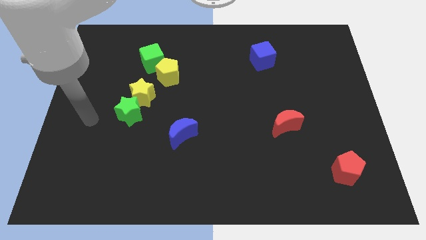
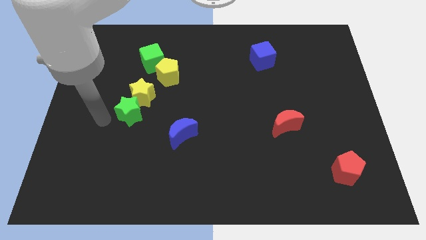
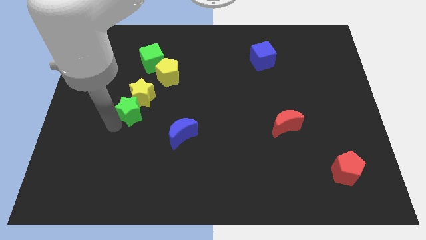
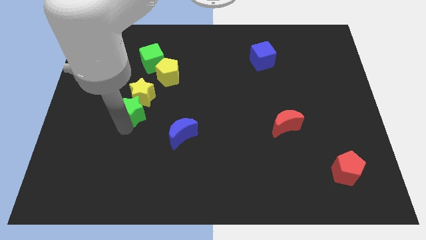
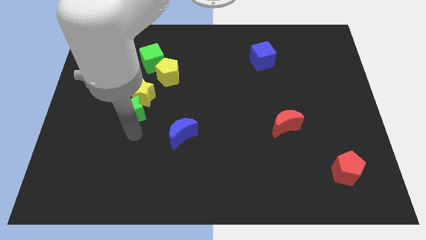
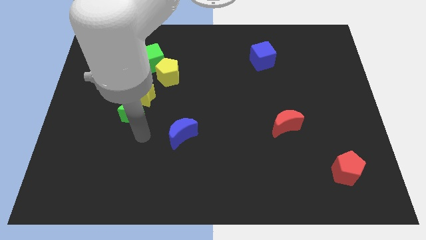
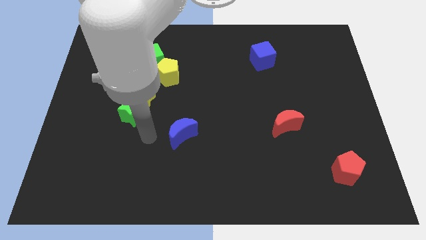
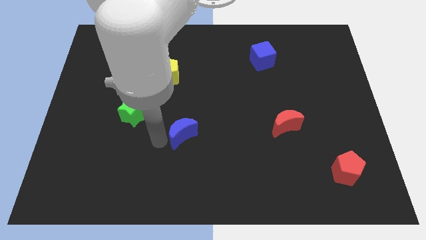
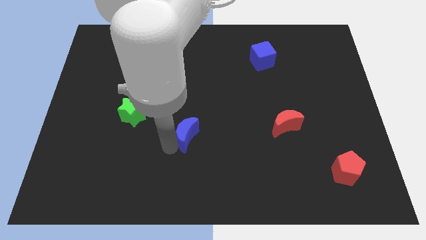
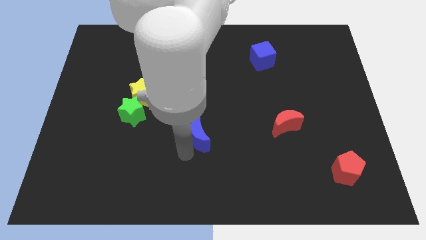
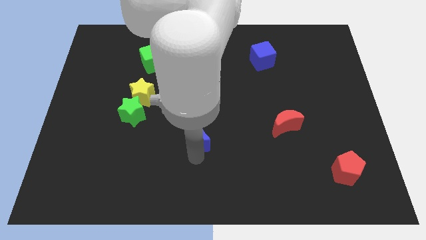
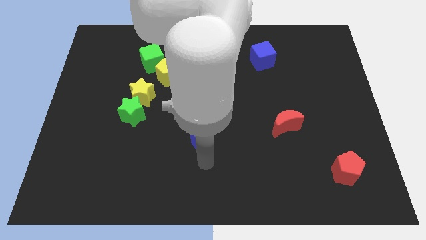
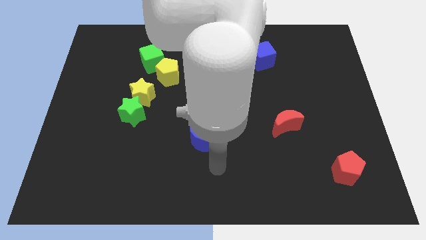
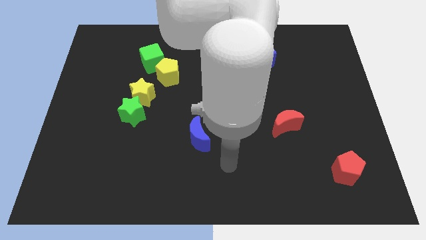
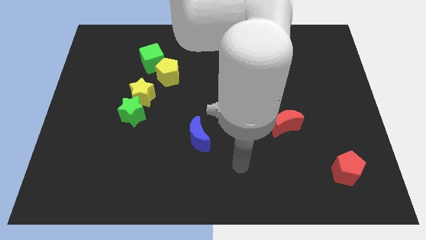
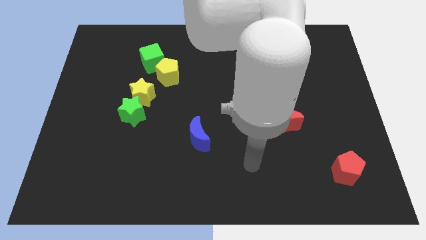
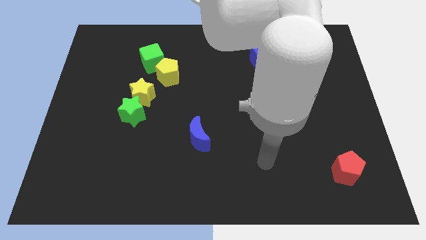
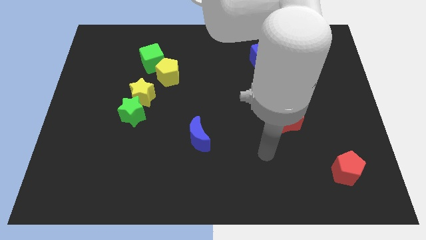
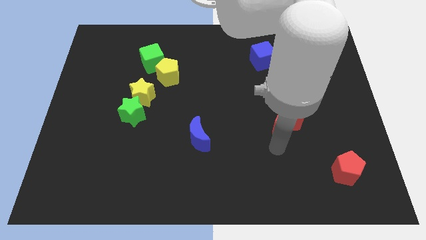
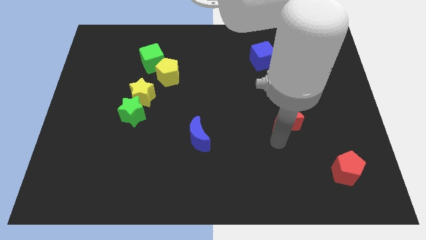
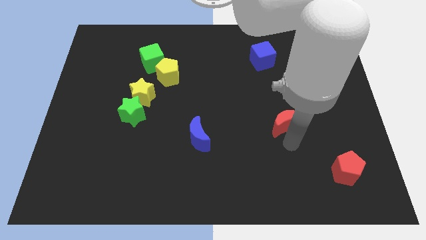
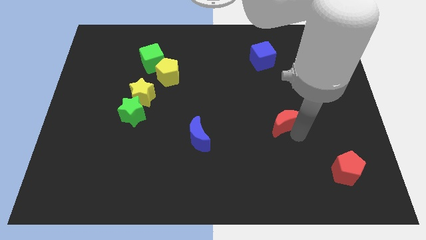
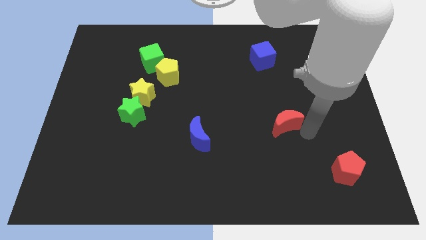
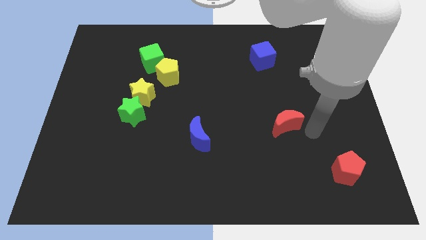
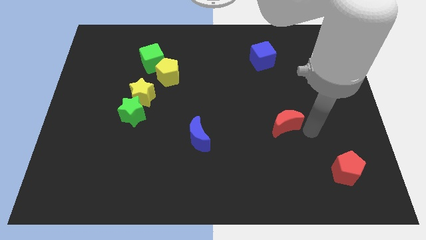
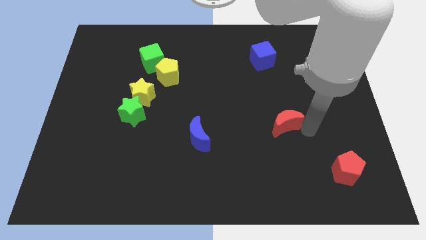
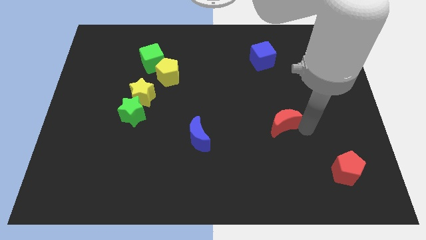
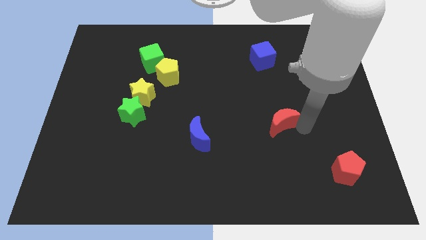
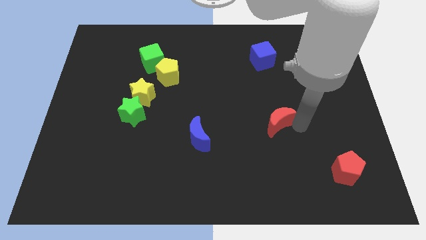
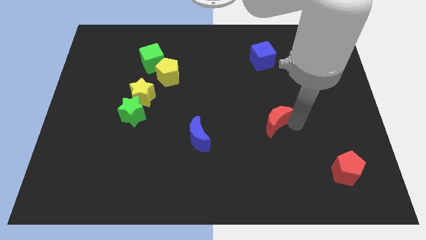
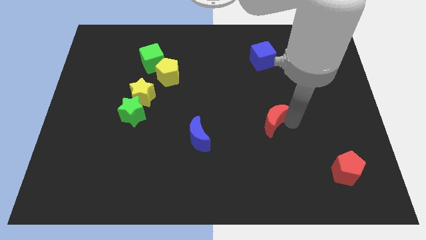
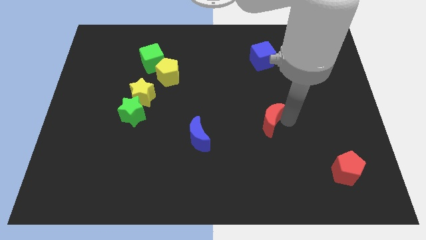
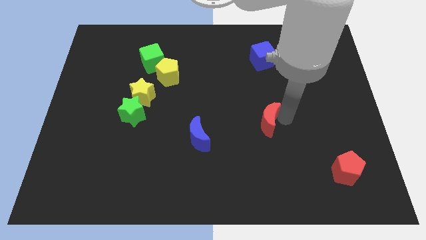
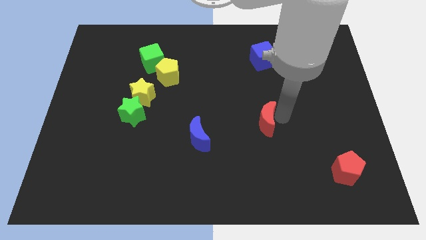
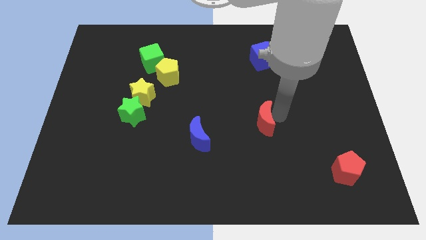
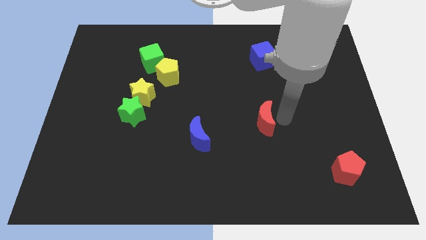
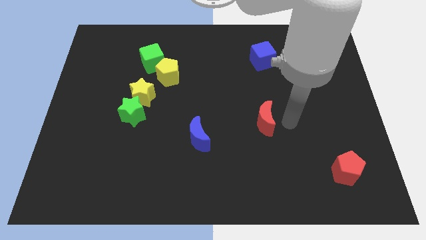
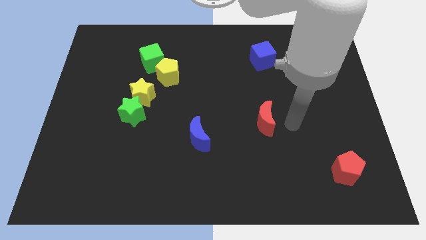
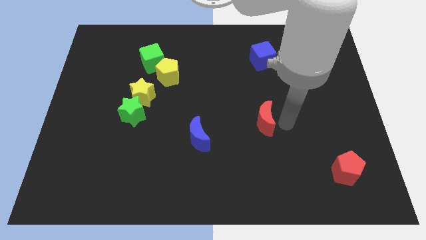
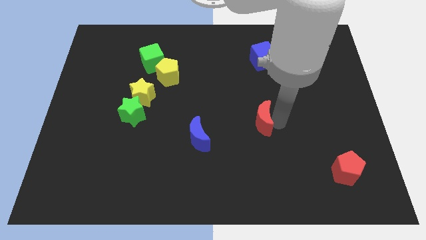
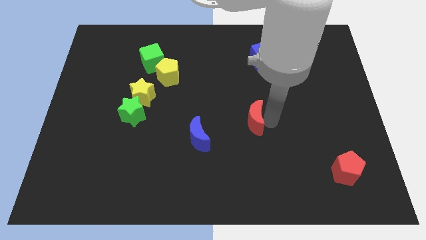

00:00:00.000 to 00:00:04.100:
move the red moon to the left a bit

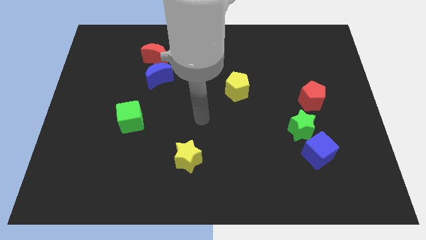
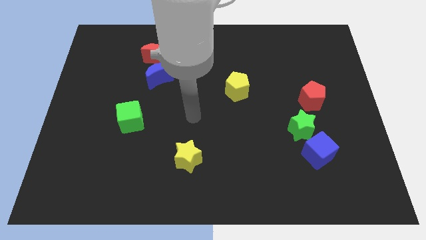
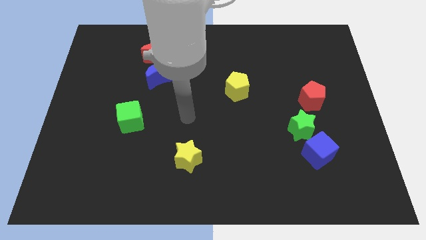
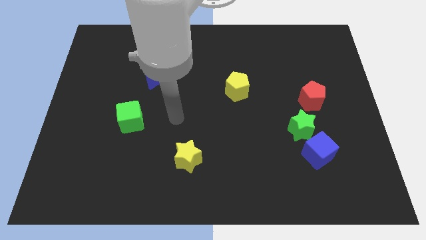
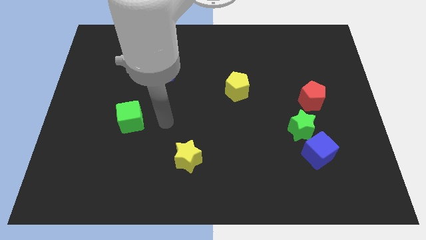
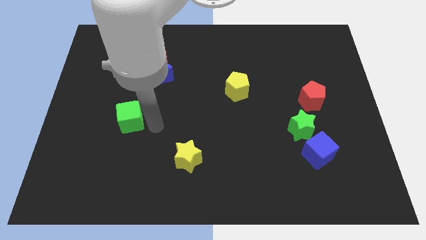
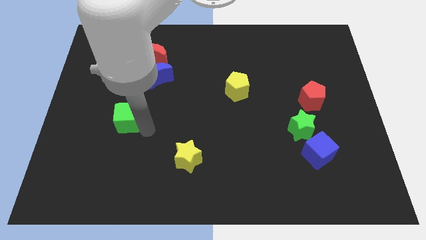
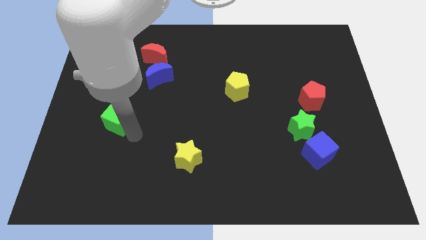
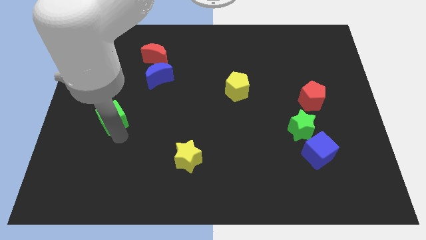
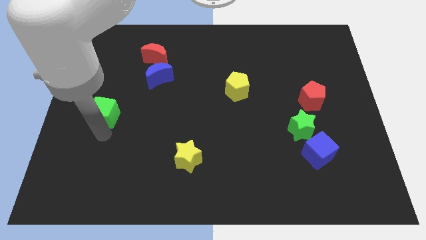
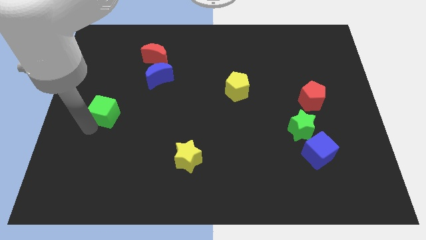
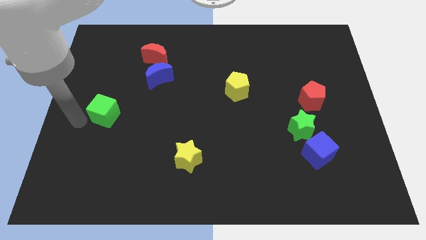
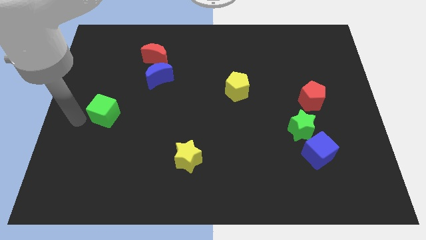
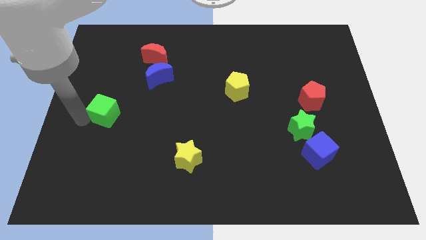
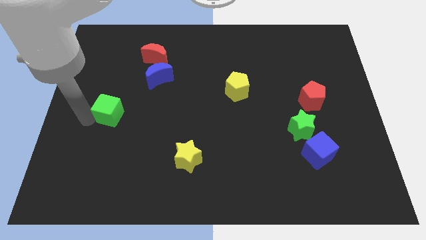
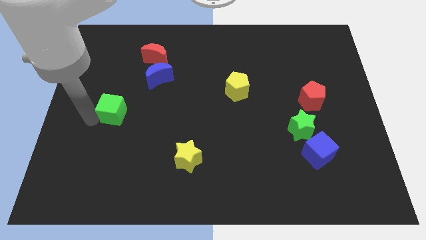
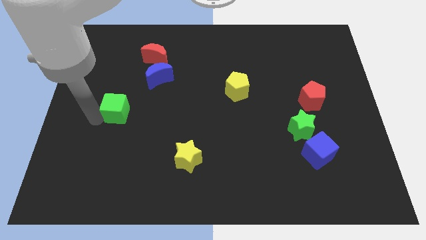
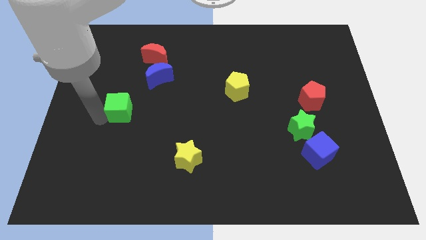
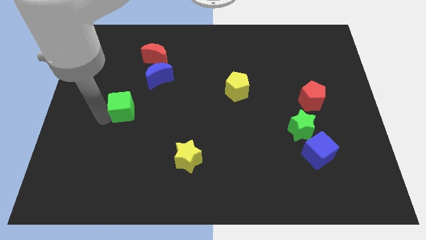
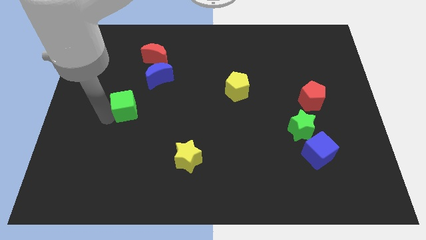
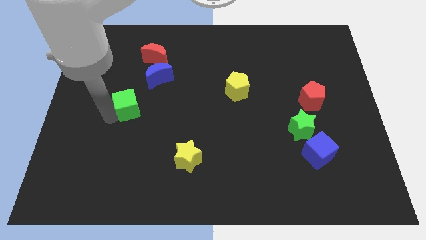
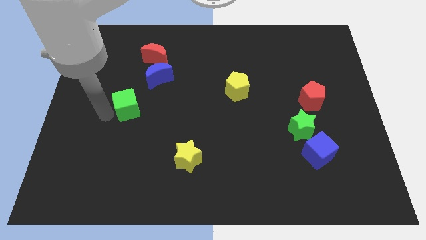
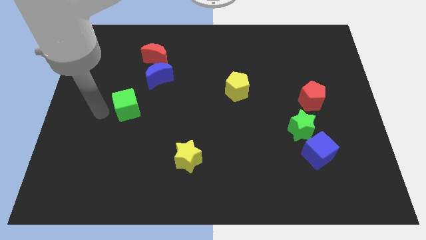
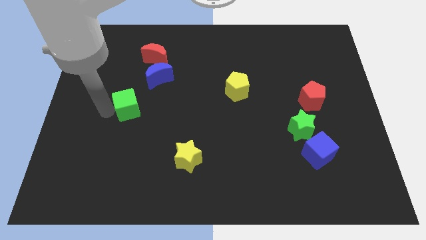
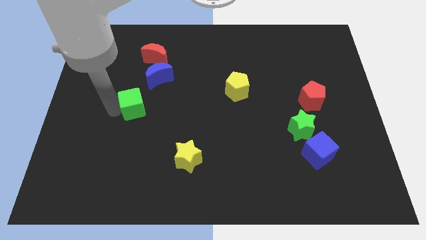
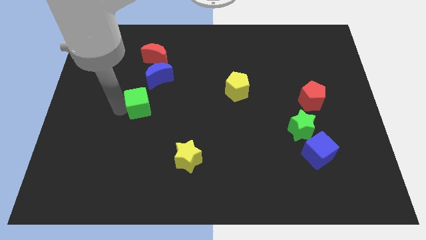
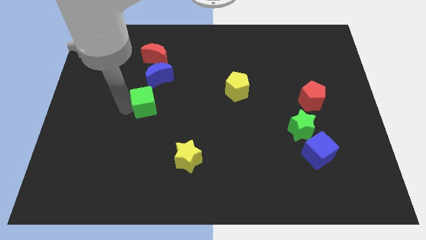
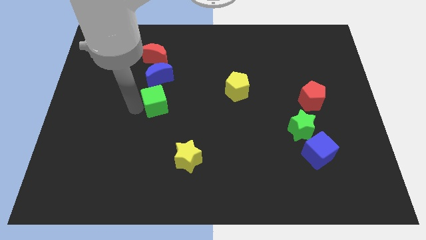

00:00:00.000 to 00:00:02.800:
slide the green cube diagonally up and to the right a little bit

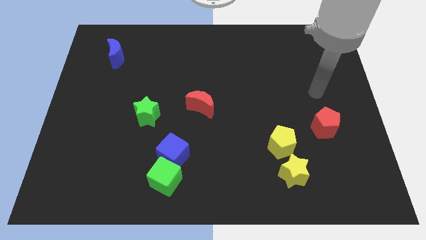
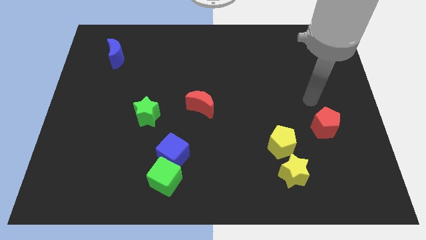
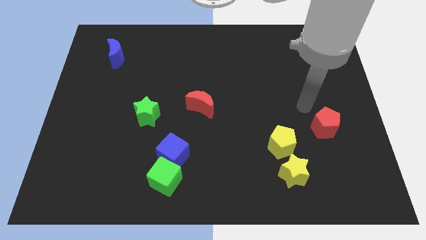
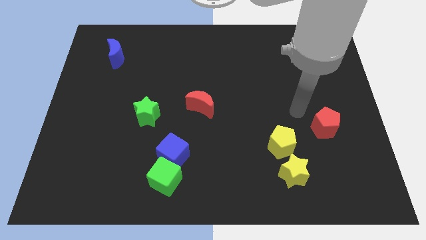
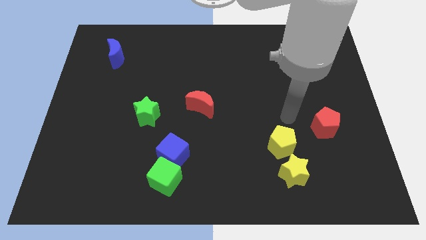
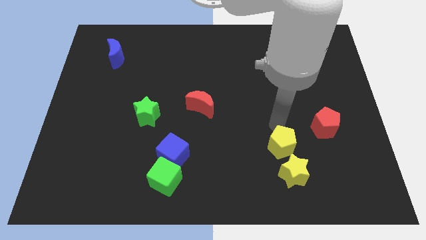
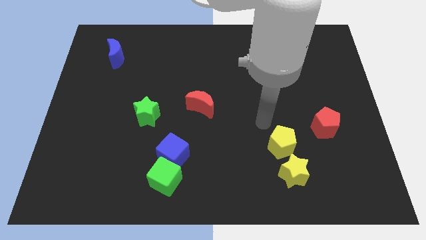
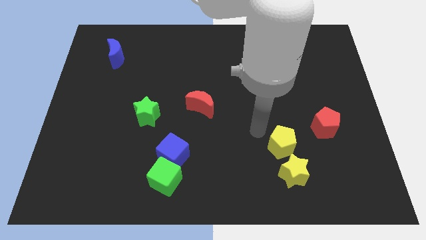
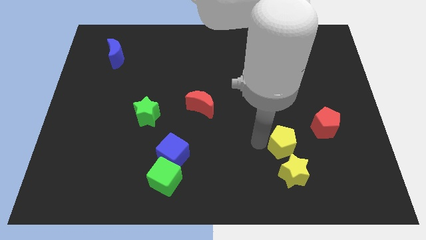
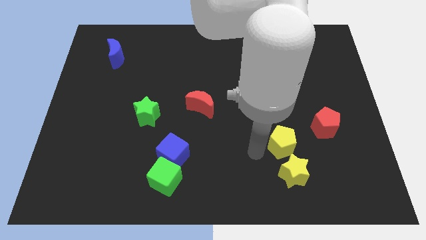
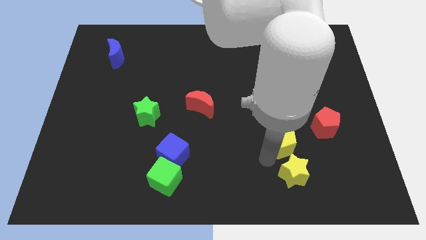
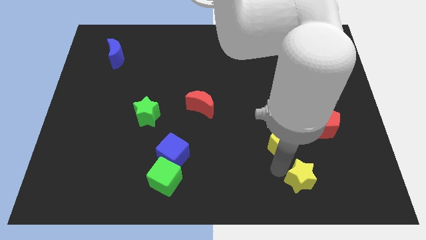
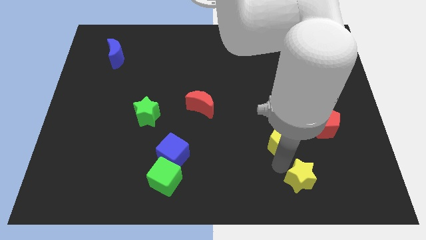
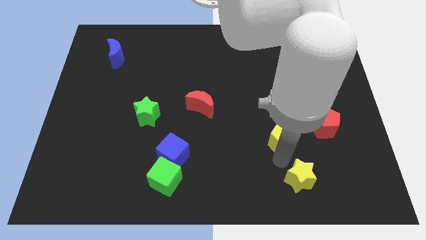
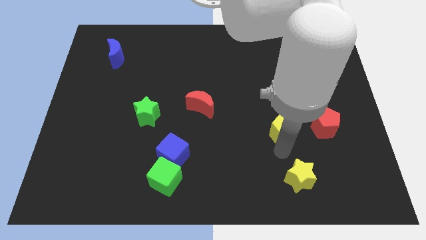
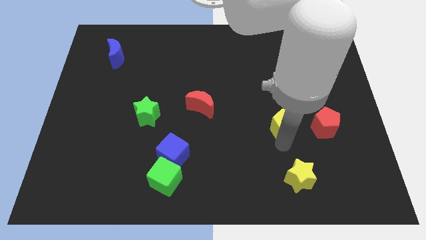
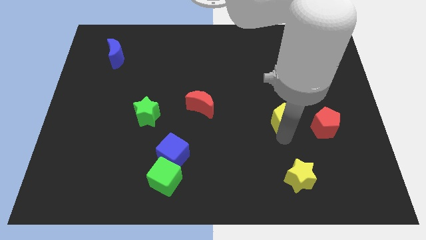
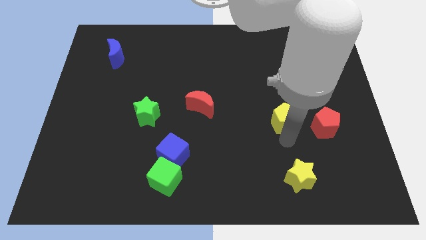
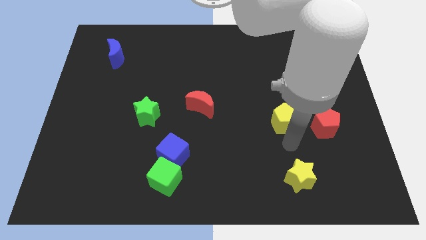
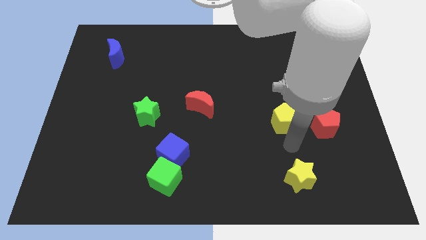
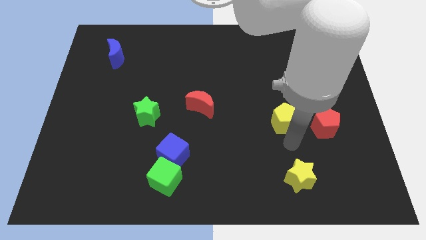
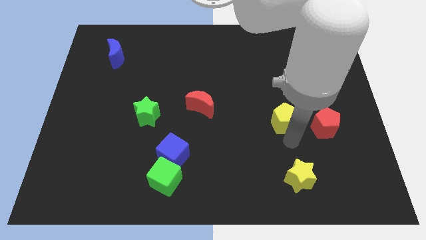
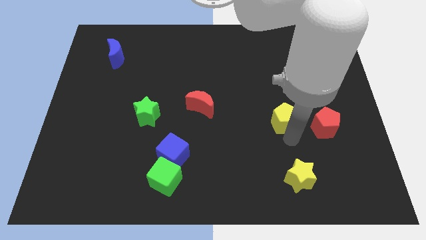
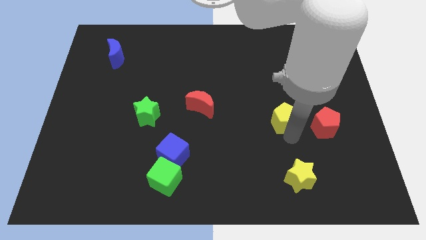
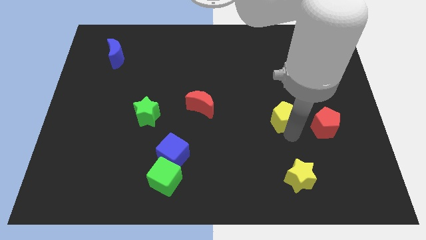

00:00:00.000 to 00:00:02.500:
slide the yellow pentagon upwards a little bit
